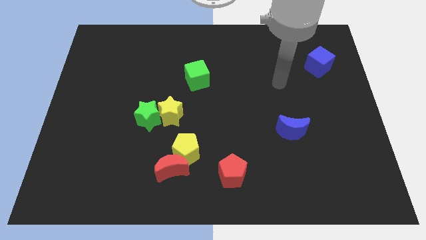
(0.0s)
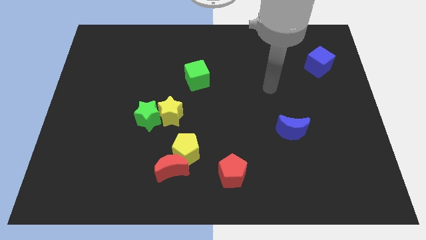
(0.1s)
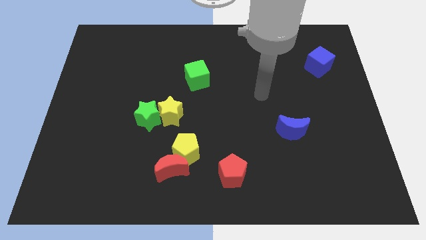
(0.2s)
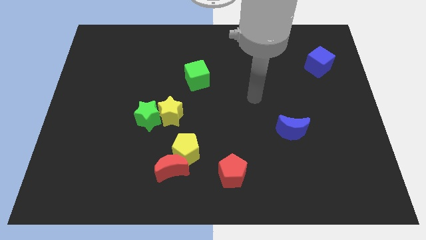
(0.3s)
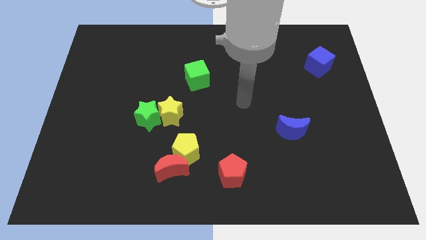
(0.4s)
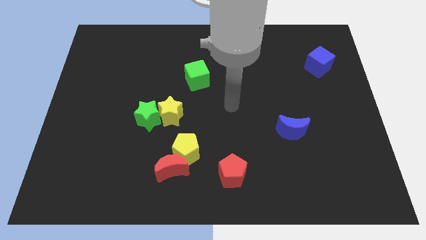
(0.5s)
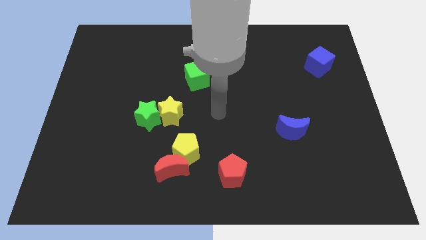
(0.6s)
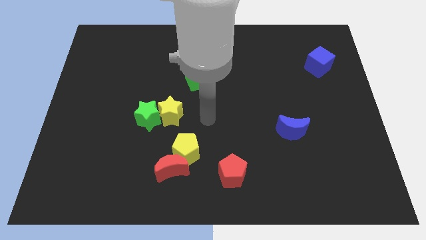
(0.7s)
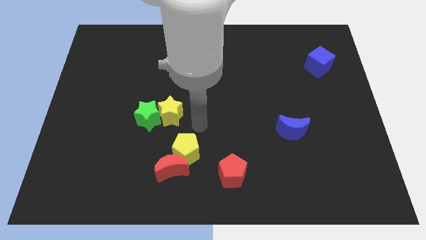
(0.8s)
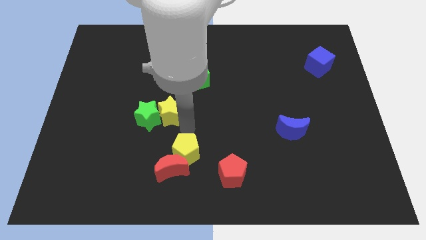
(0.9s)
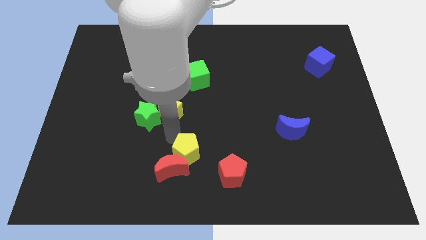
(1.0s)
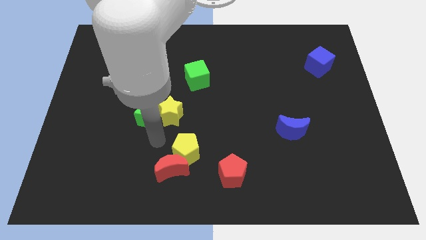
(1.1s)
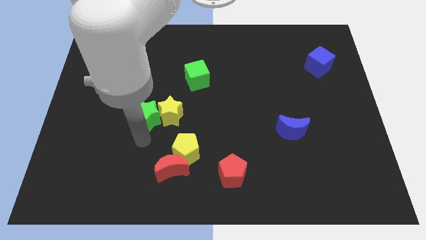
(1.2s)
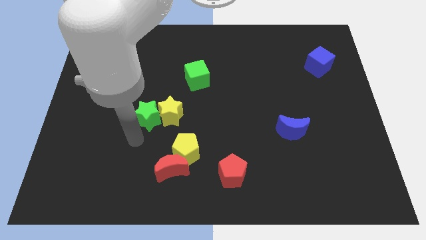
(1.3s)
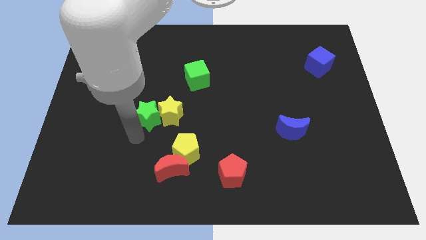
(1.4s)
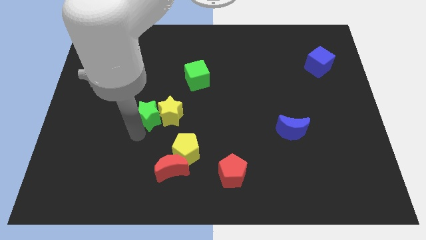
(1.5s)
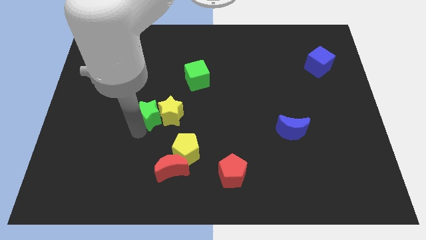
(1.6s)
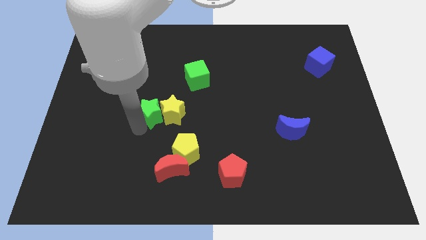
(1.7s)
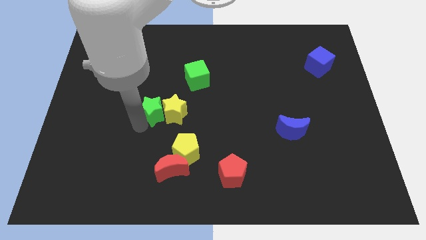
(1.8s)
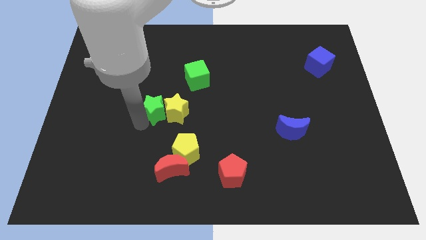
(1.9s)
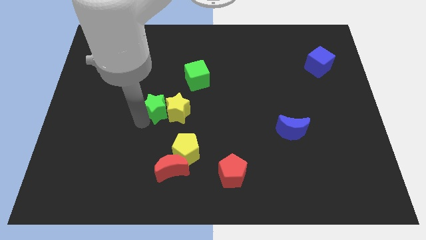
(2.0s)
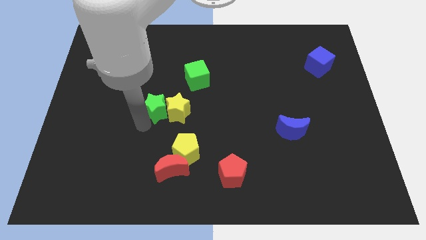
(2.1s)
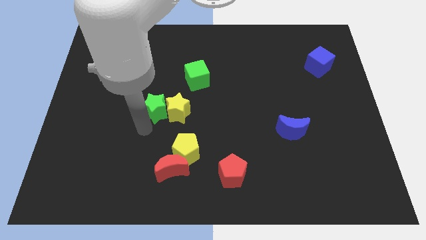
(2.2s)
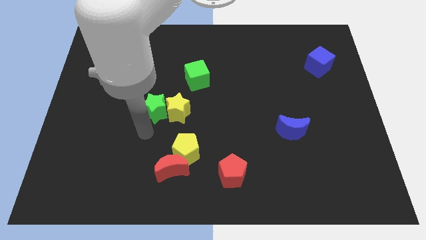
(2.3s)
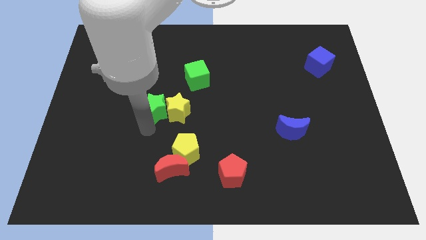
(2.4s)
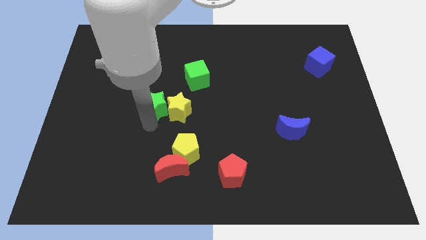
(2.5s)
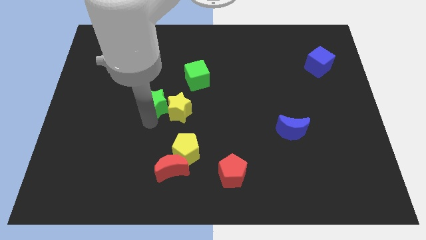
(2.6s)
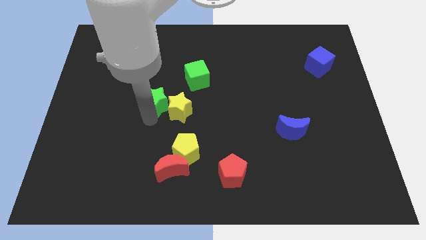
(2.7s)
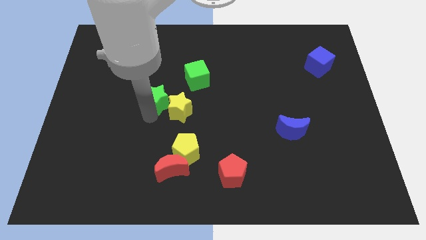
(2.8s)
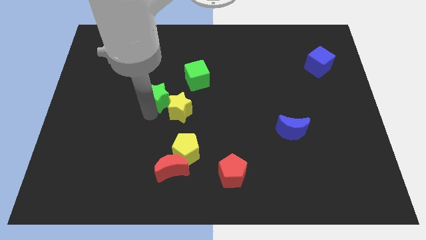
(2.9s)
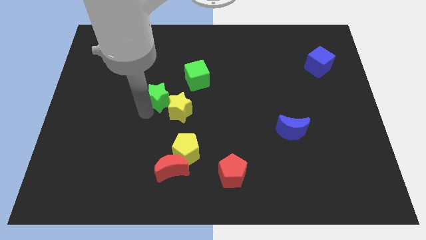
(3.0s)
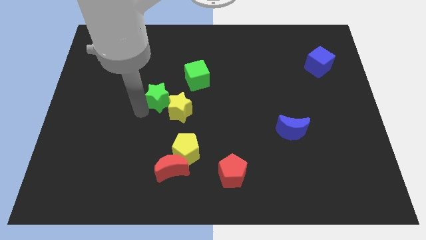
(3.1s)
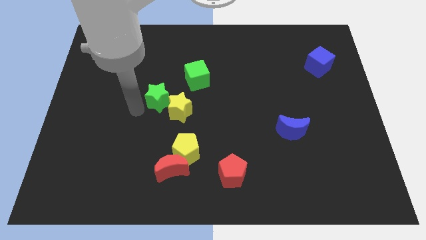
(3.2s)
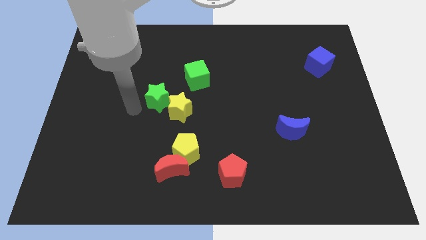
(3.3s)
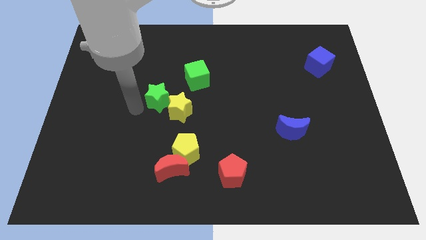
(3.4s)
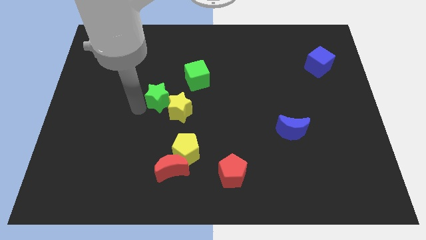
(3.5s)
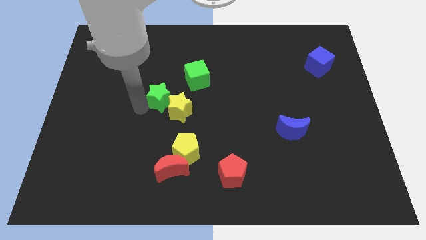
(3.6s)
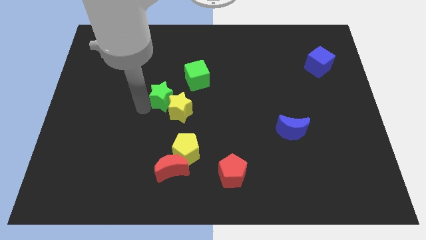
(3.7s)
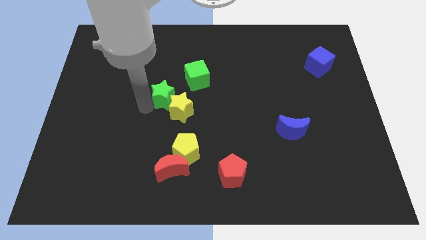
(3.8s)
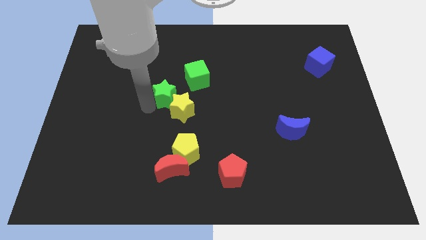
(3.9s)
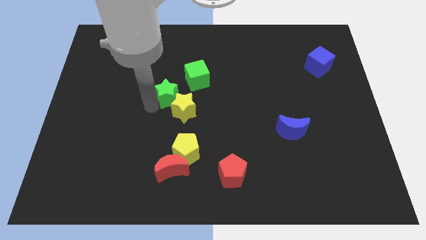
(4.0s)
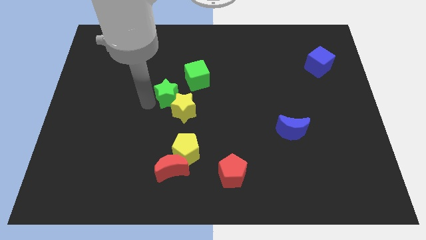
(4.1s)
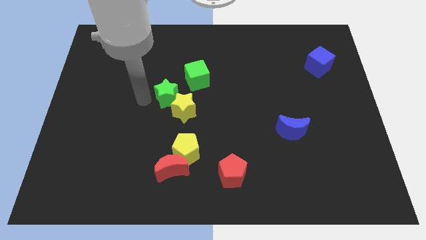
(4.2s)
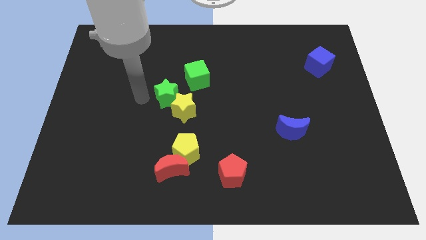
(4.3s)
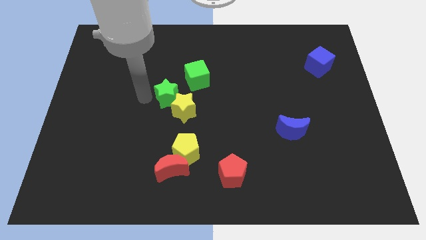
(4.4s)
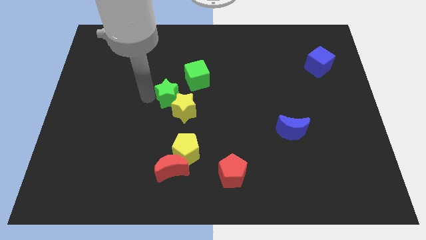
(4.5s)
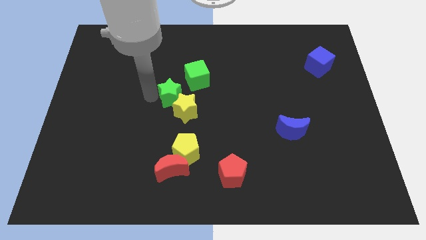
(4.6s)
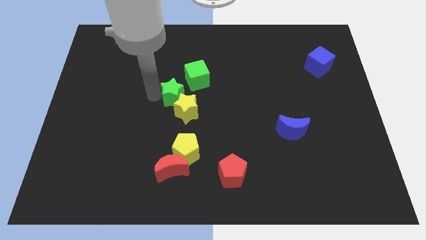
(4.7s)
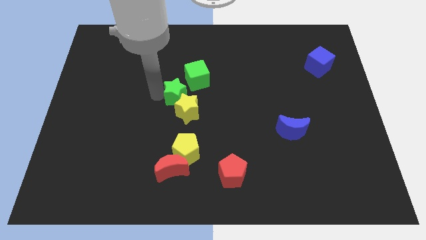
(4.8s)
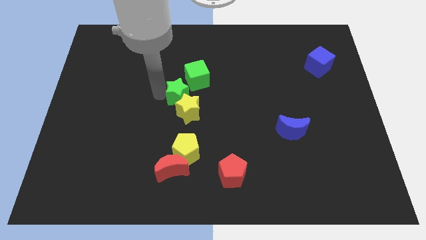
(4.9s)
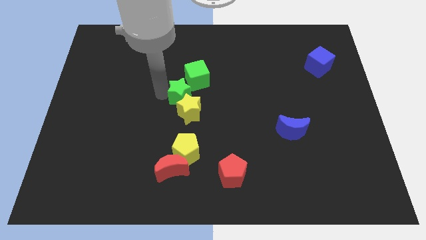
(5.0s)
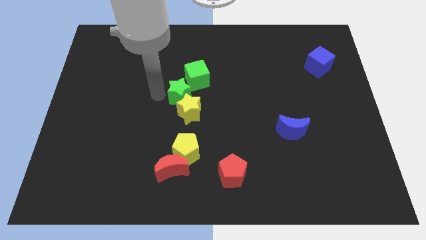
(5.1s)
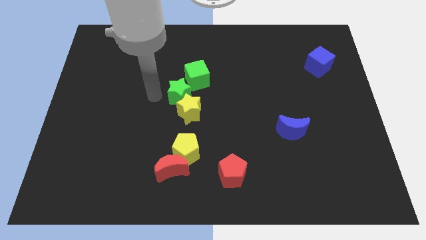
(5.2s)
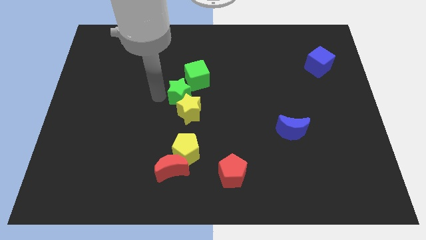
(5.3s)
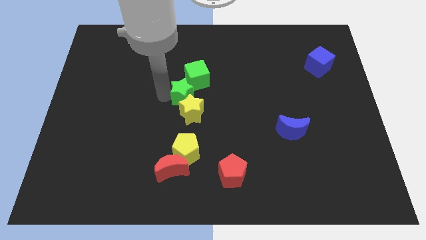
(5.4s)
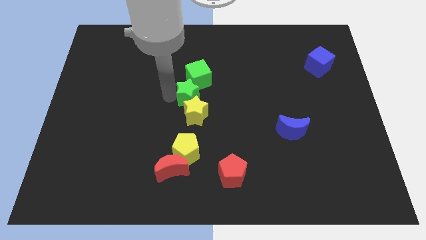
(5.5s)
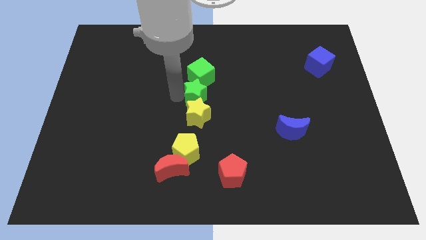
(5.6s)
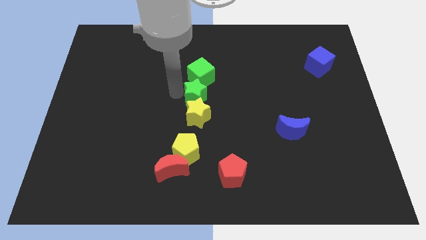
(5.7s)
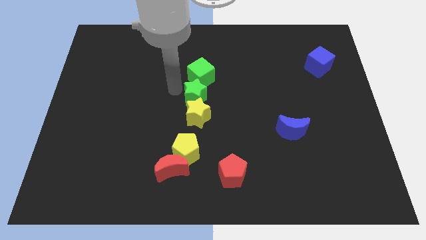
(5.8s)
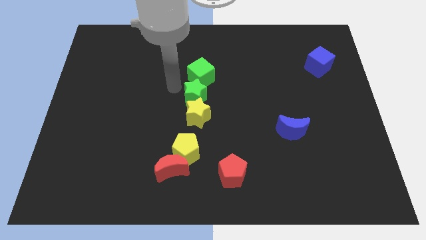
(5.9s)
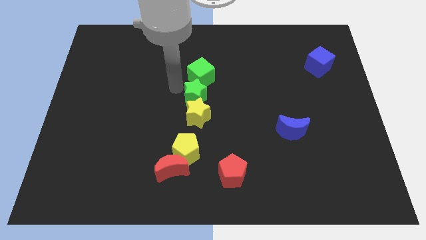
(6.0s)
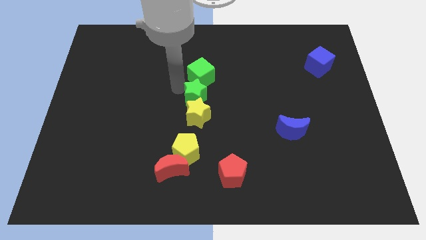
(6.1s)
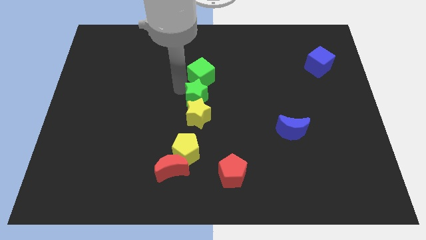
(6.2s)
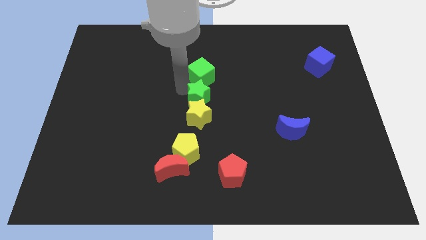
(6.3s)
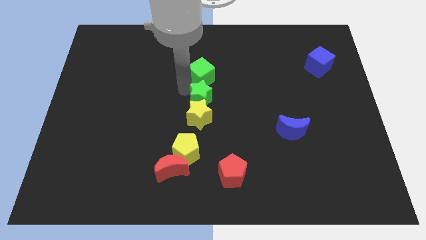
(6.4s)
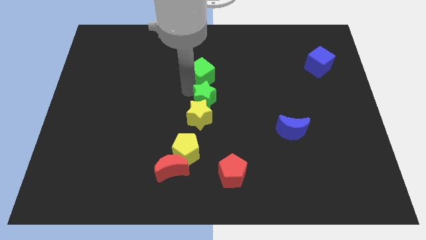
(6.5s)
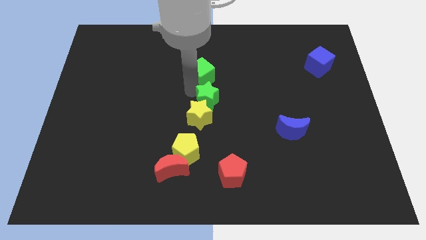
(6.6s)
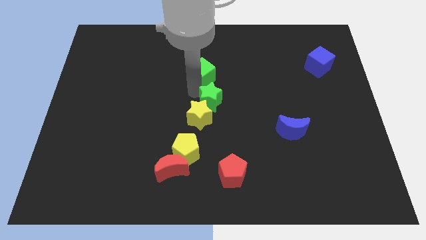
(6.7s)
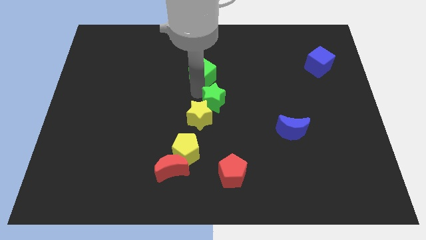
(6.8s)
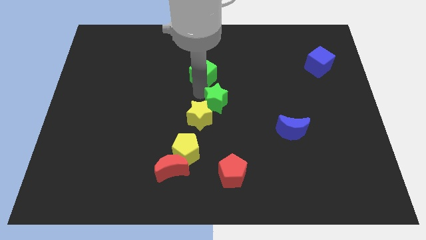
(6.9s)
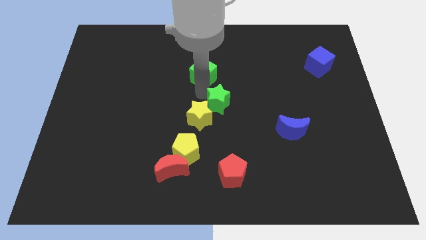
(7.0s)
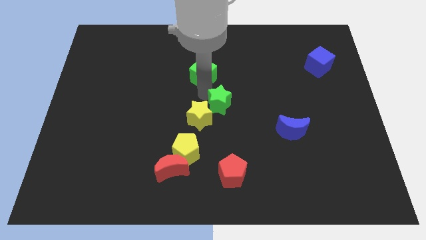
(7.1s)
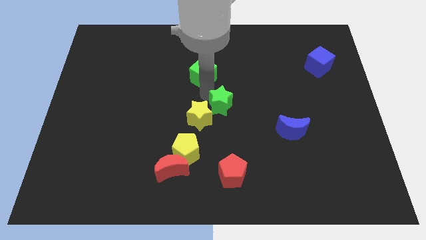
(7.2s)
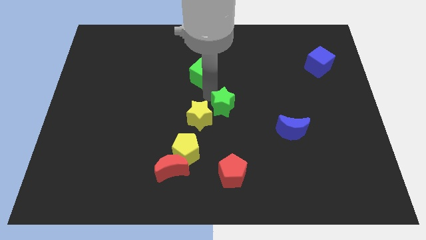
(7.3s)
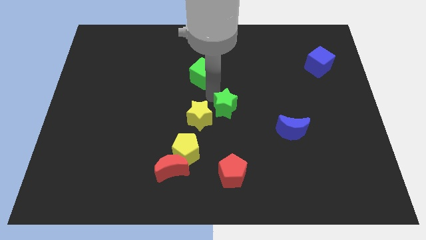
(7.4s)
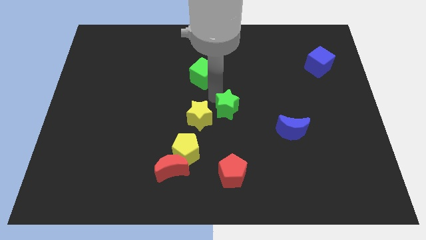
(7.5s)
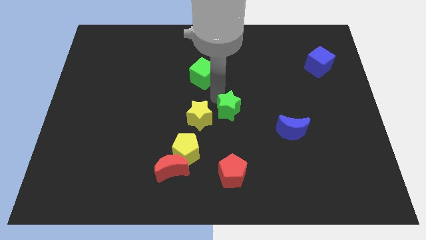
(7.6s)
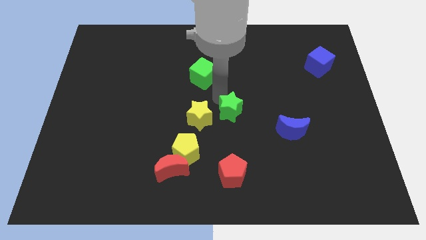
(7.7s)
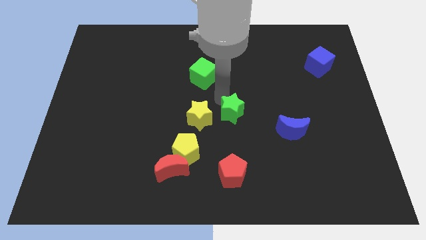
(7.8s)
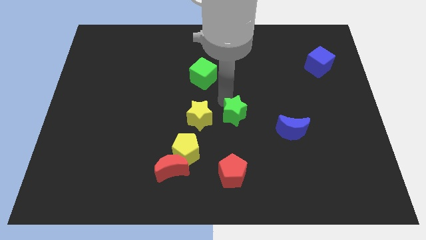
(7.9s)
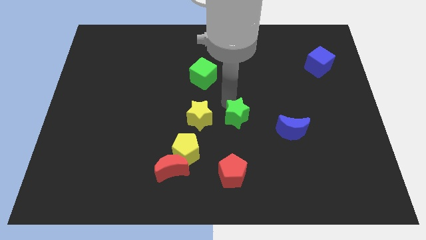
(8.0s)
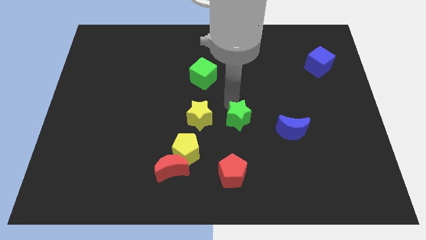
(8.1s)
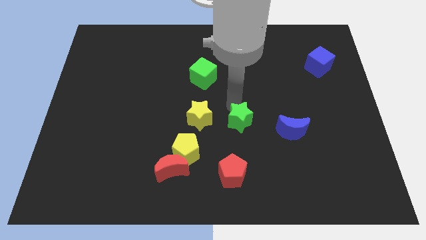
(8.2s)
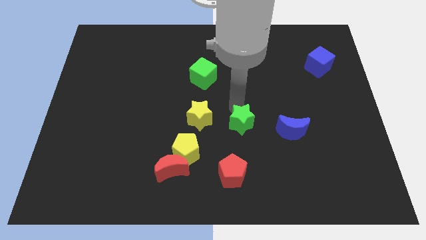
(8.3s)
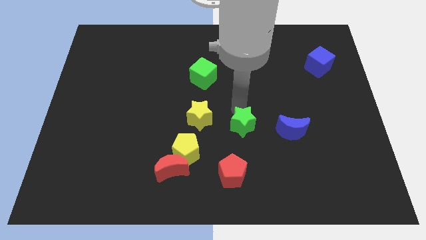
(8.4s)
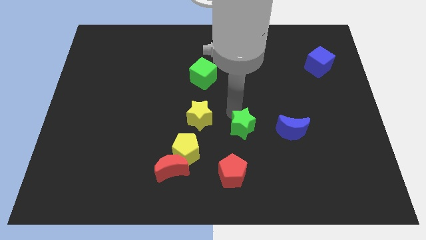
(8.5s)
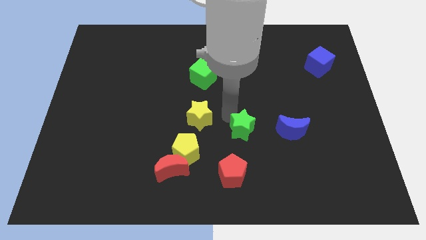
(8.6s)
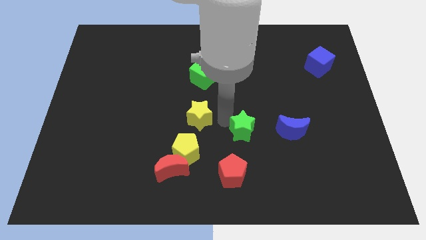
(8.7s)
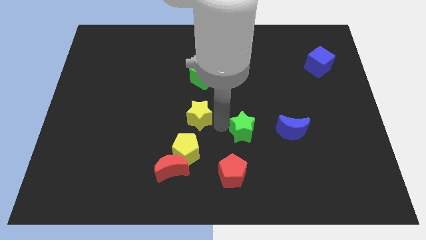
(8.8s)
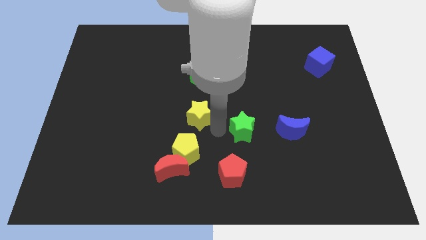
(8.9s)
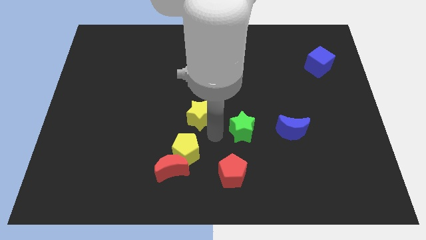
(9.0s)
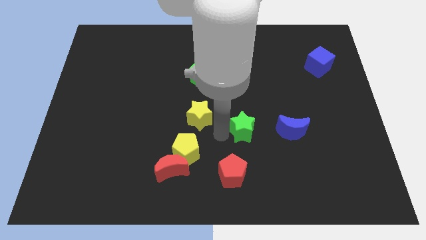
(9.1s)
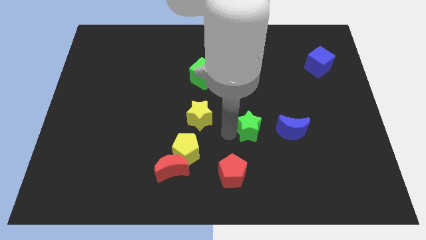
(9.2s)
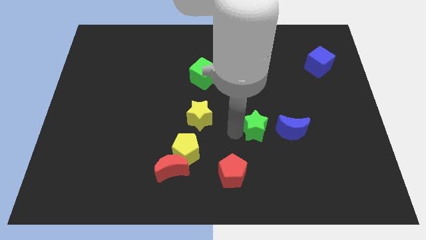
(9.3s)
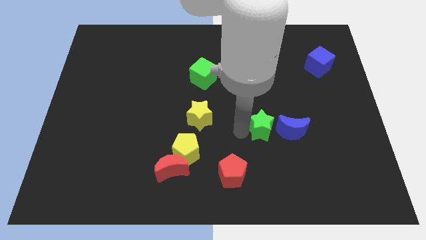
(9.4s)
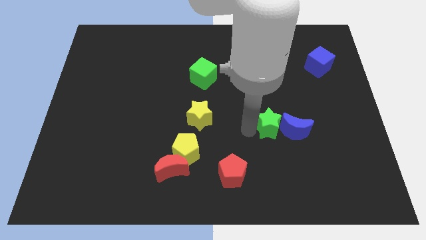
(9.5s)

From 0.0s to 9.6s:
move the green star next to the blue moon
